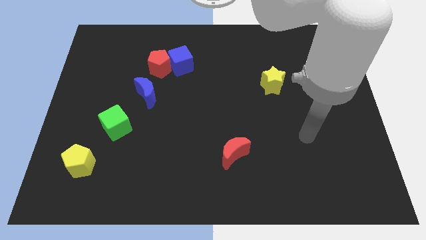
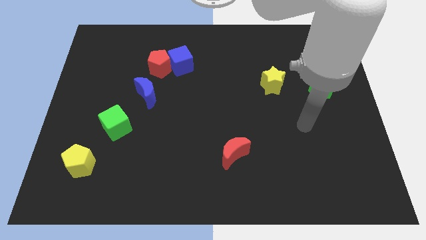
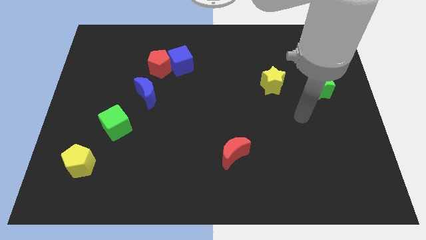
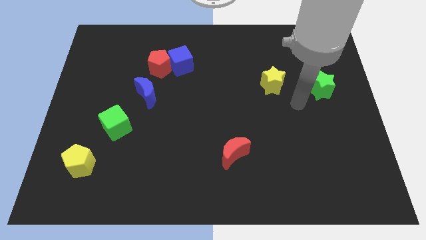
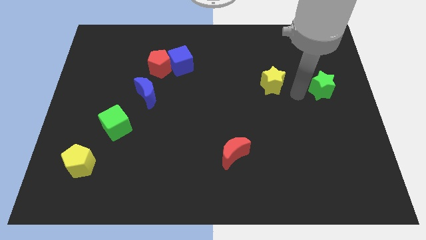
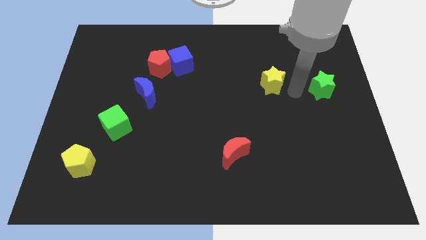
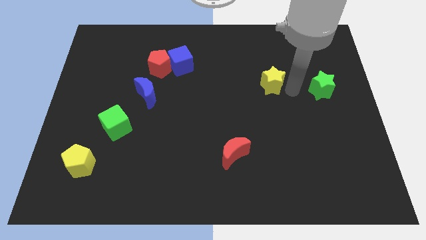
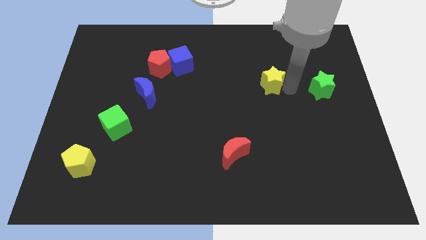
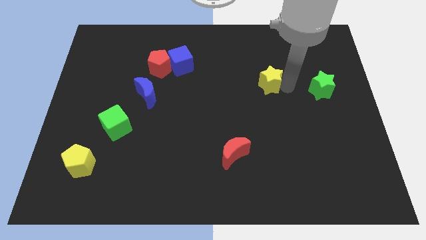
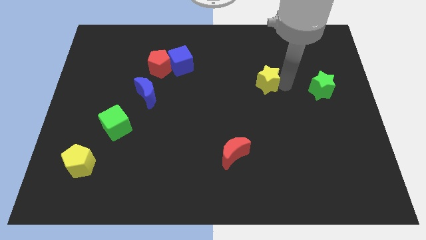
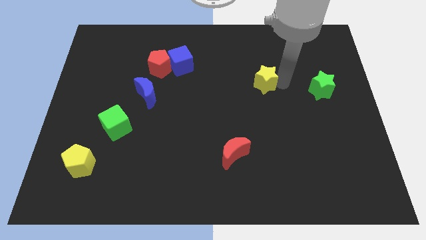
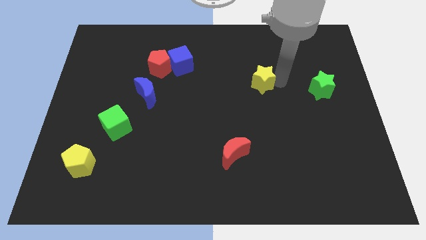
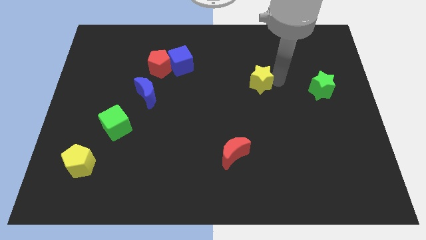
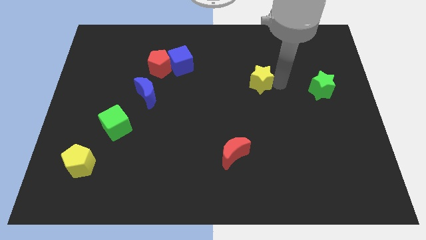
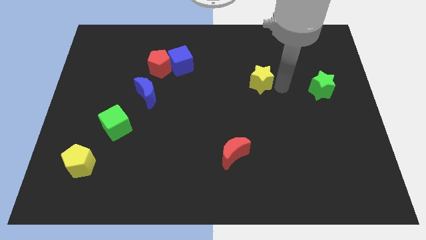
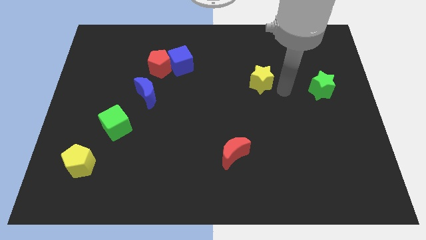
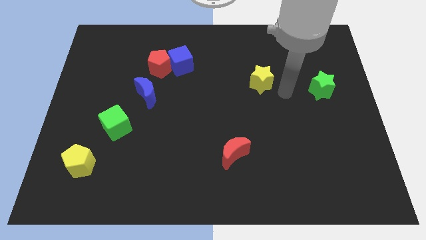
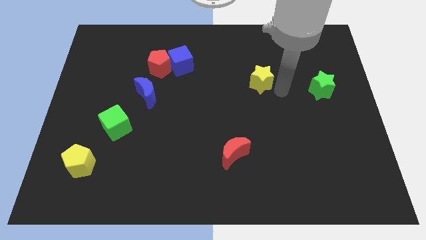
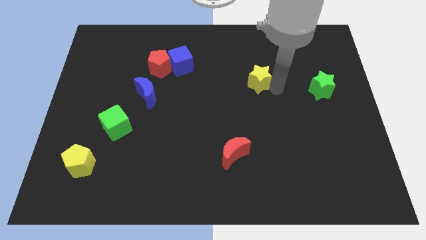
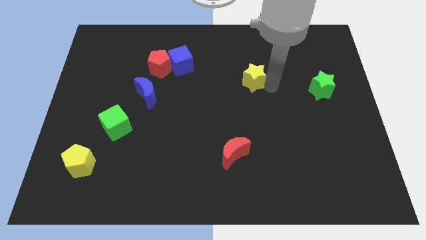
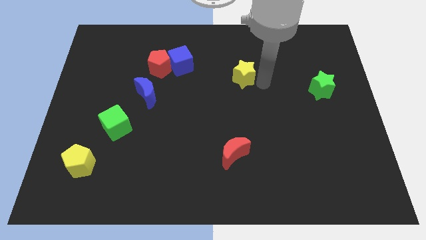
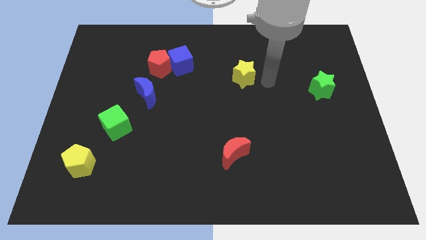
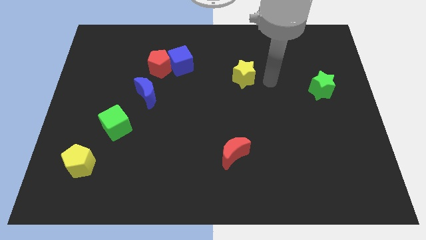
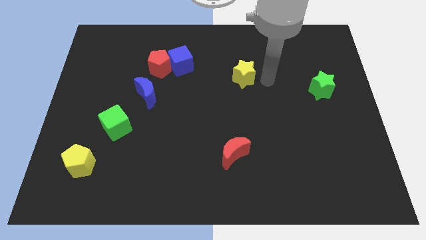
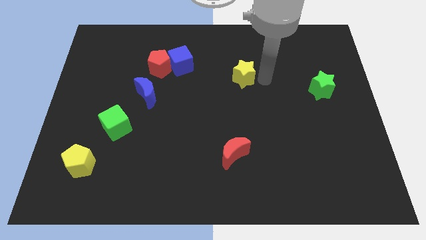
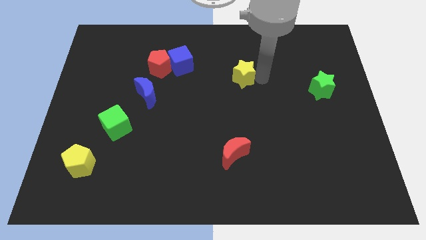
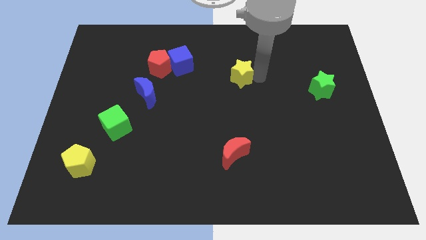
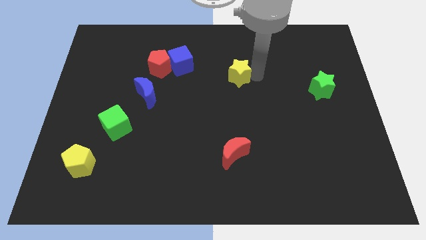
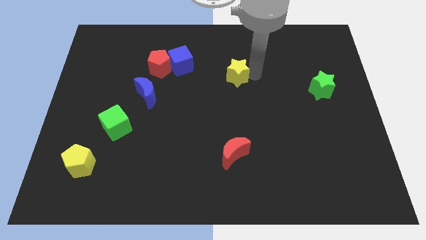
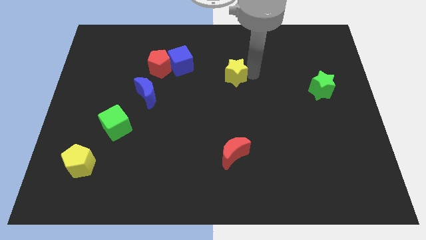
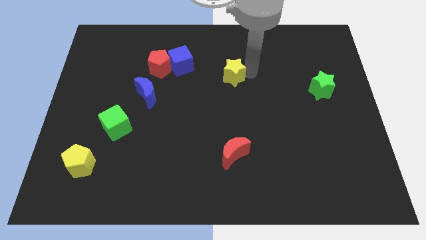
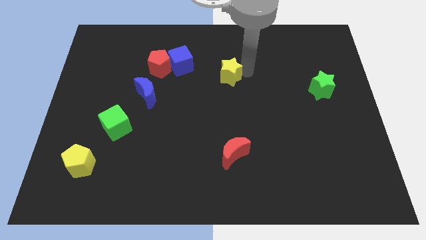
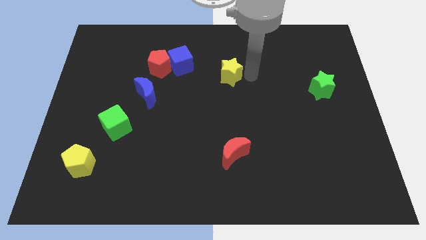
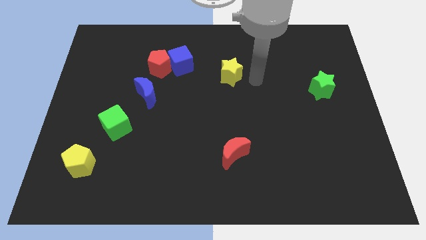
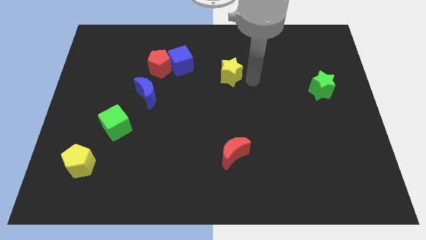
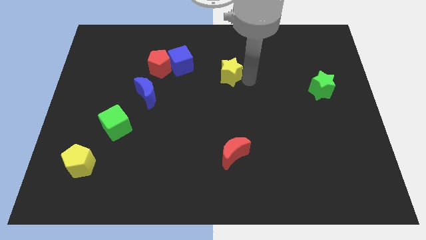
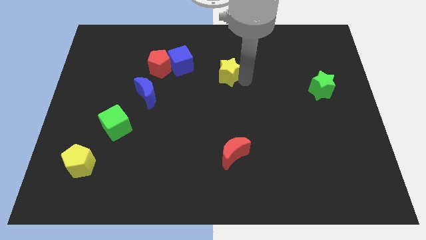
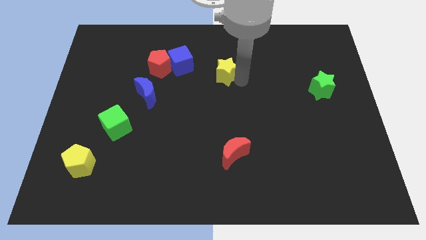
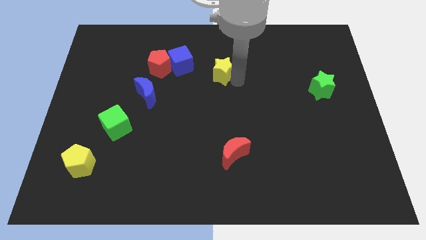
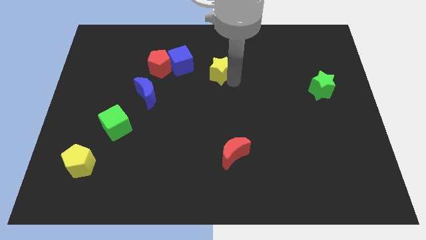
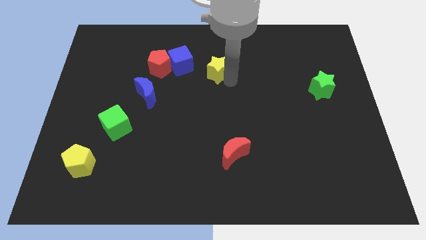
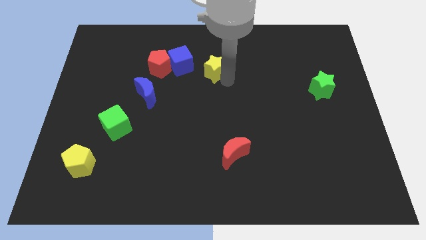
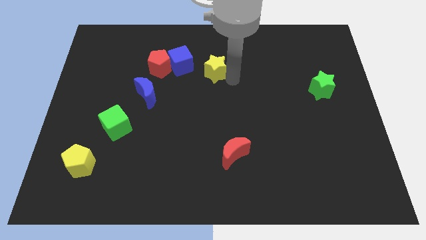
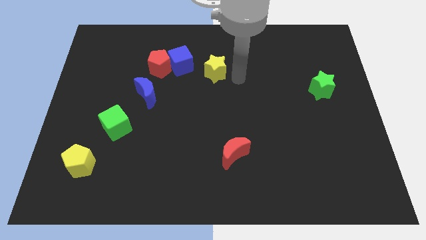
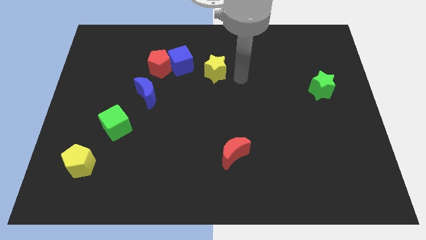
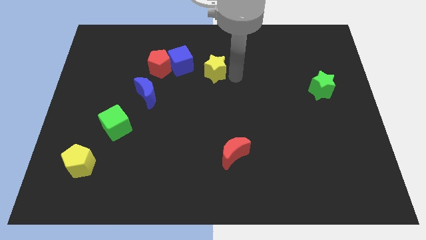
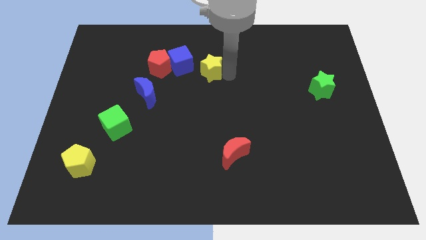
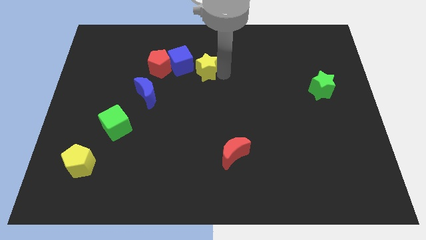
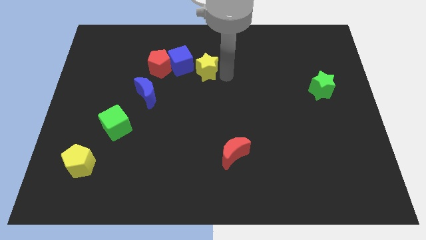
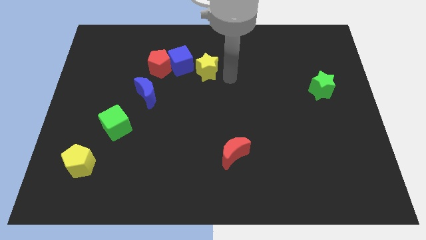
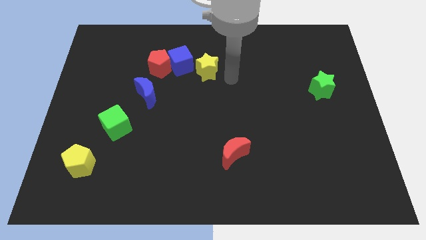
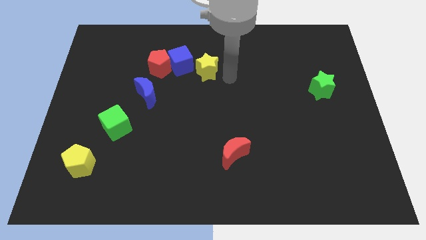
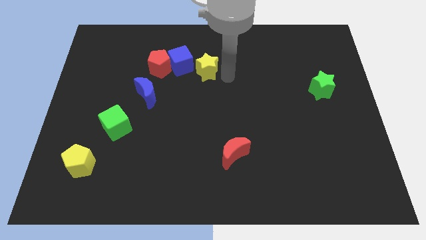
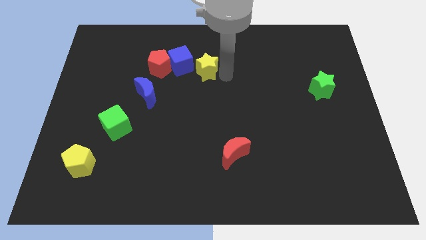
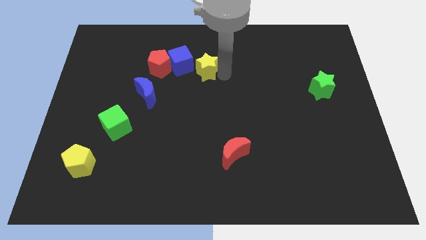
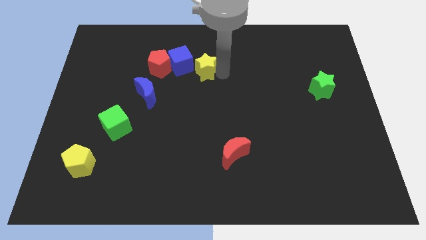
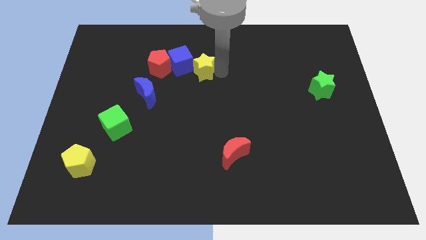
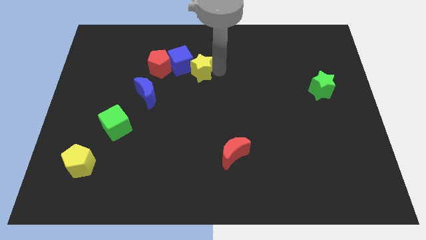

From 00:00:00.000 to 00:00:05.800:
put the yellow star towards the blue cube

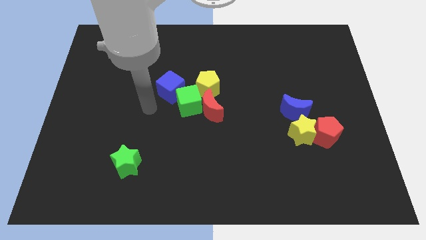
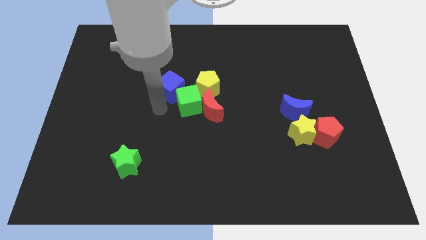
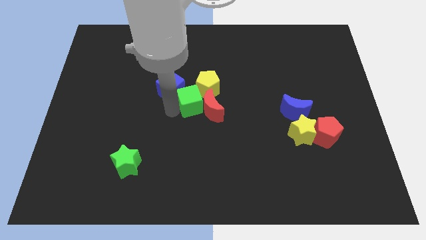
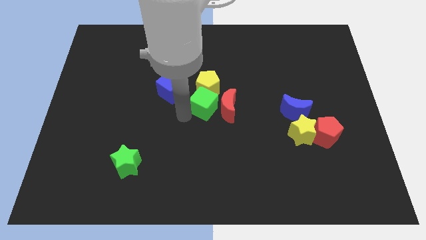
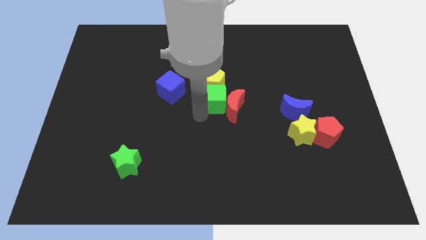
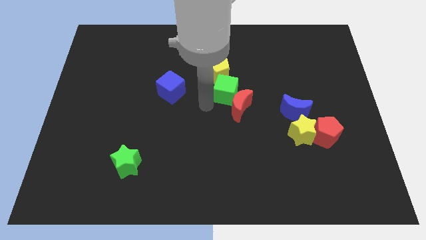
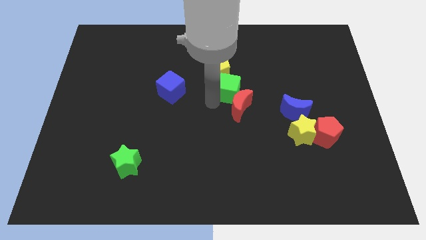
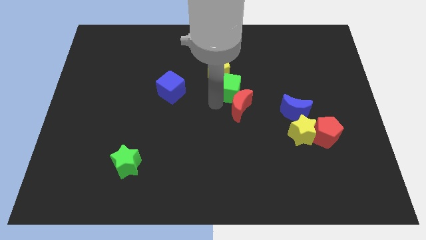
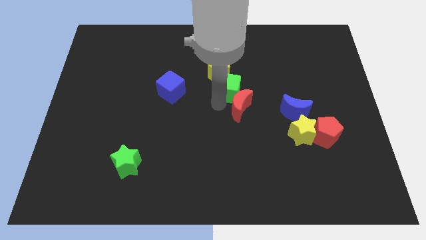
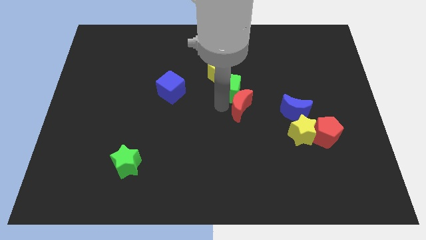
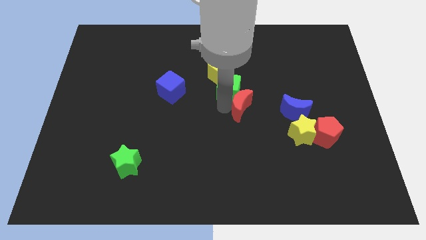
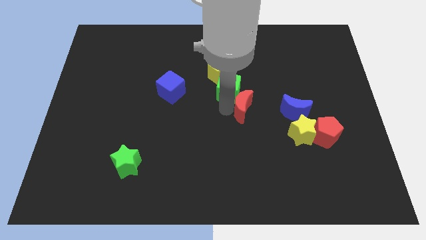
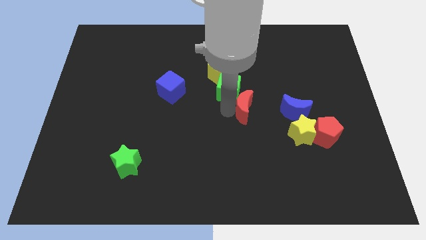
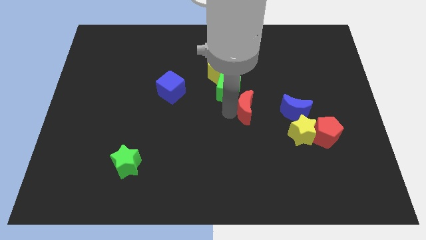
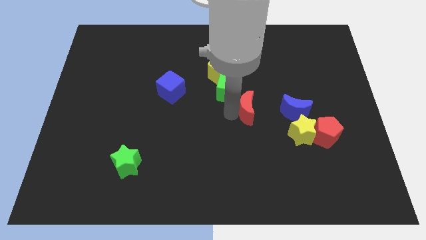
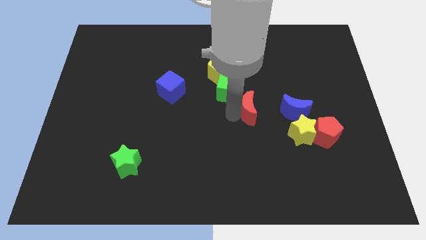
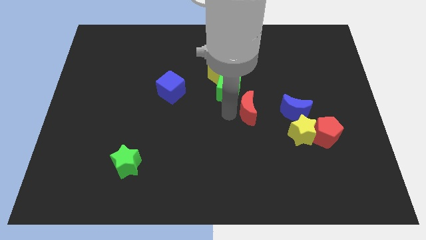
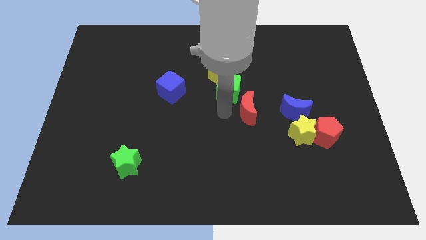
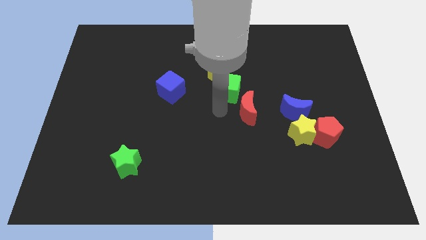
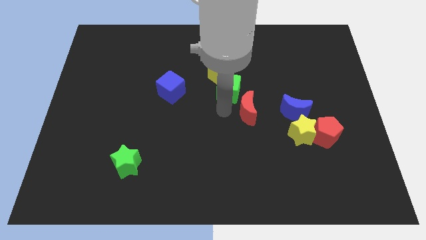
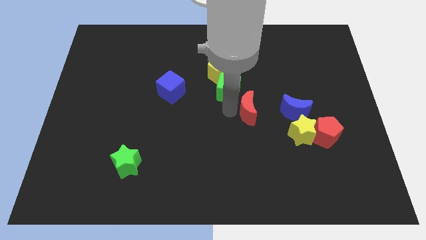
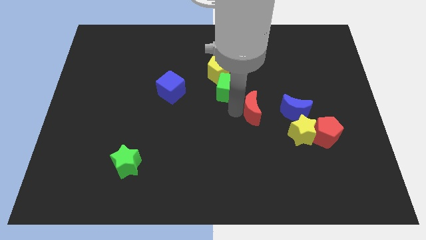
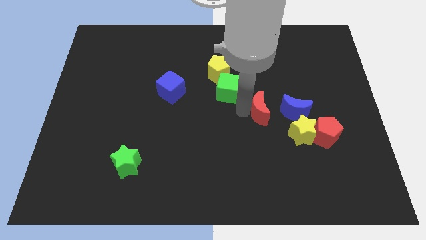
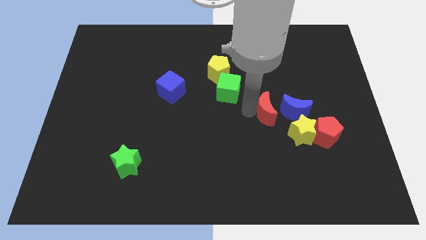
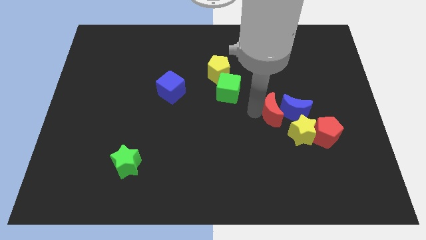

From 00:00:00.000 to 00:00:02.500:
push the red moon close to the blue moon

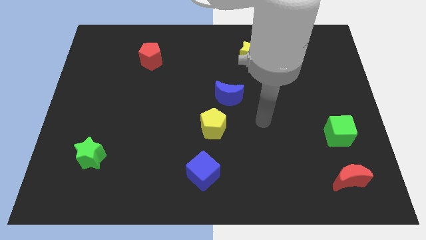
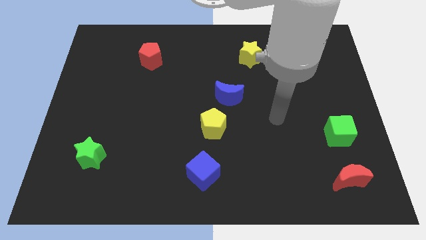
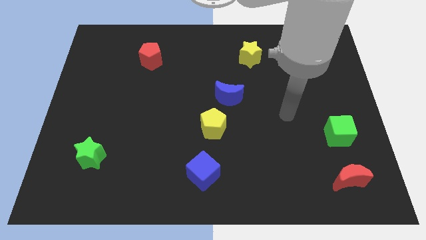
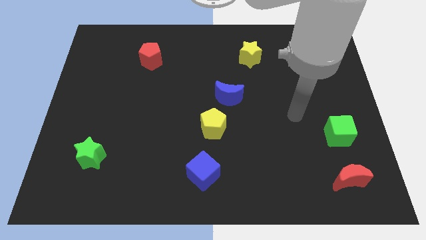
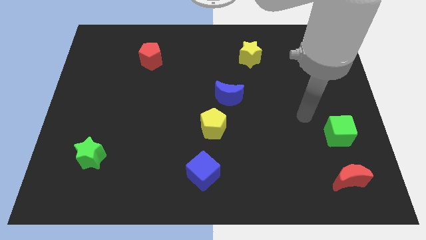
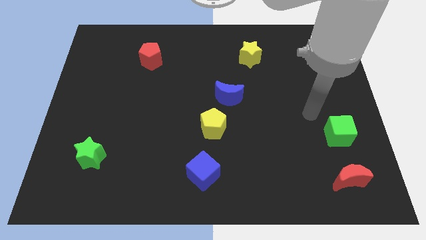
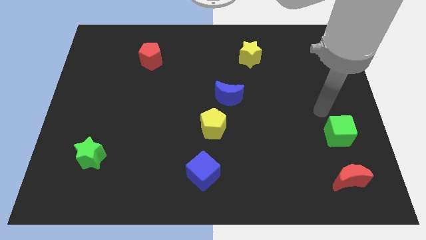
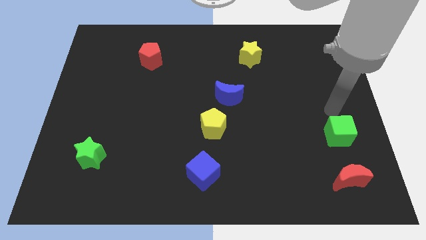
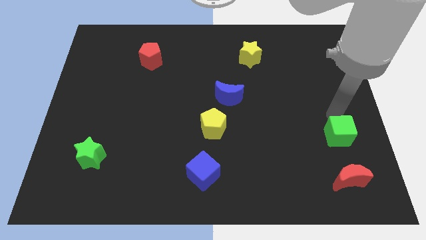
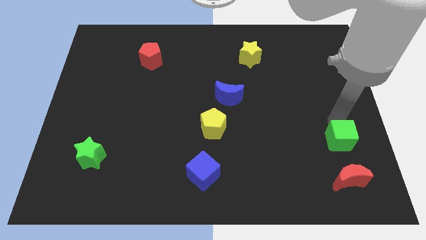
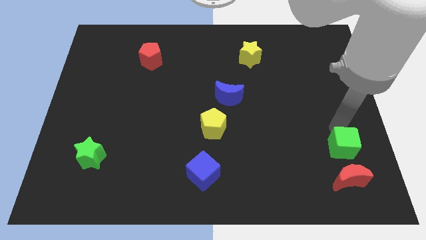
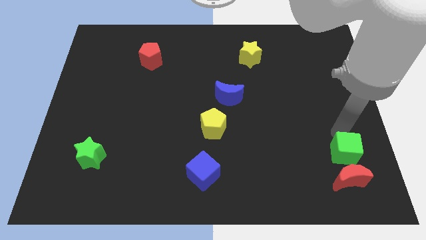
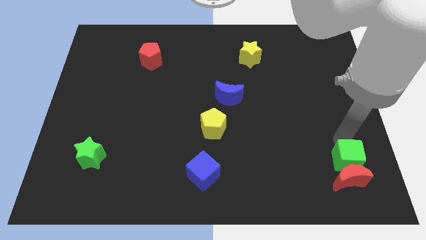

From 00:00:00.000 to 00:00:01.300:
push the green cube close to the red moon
